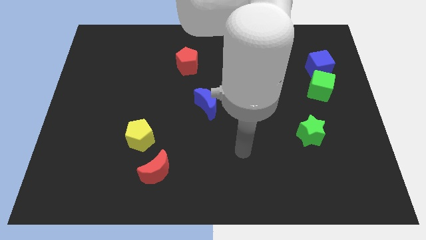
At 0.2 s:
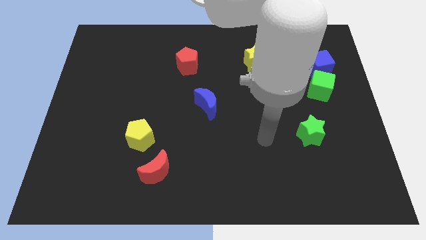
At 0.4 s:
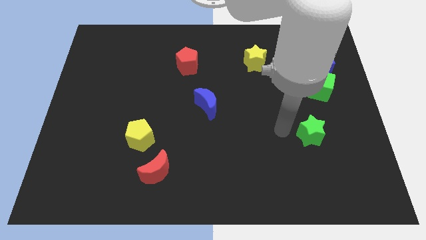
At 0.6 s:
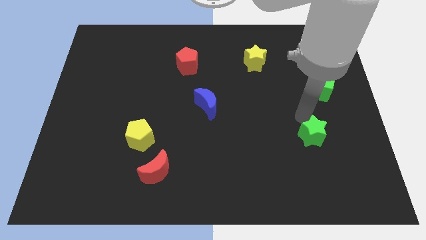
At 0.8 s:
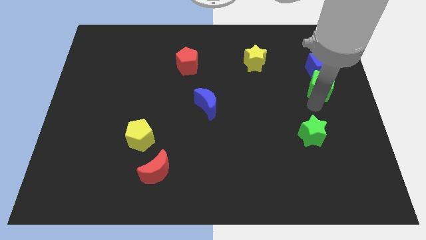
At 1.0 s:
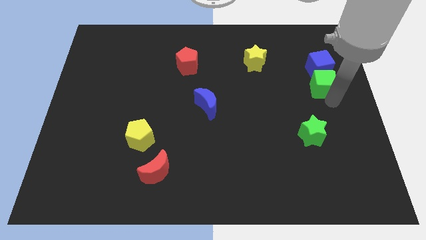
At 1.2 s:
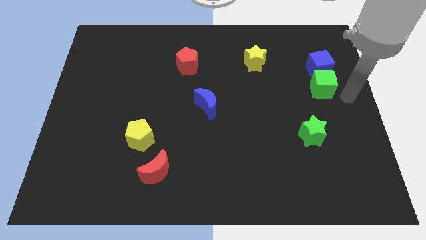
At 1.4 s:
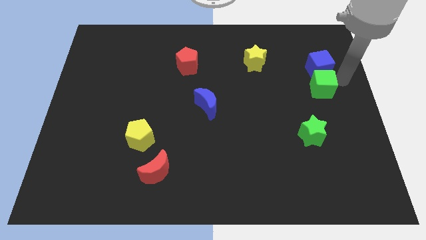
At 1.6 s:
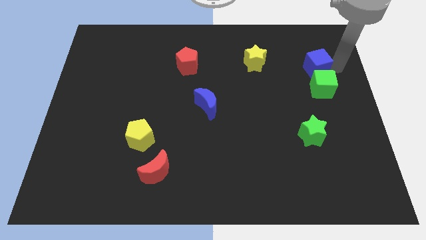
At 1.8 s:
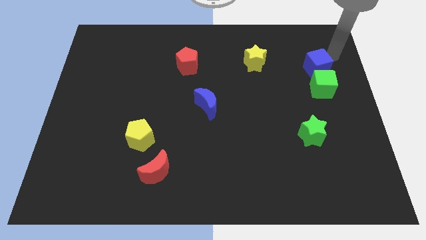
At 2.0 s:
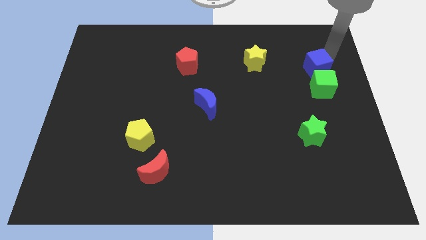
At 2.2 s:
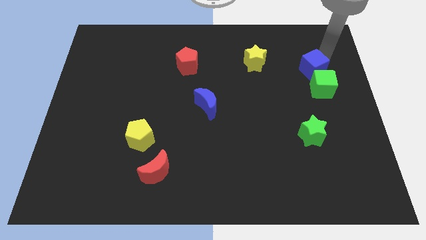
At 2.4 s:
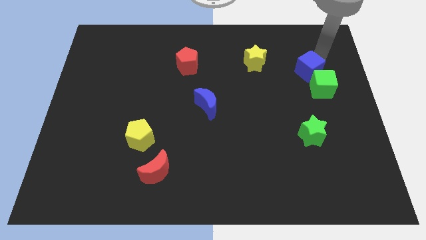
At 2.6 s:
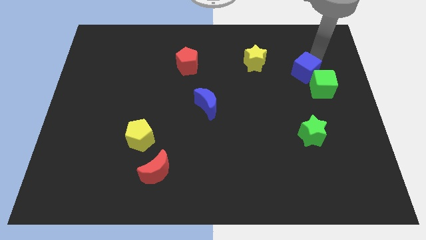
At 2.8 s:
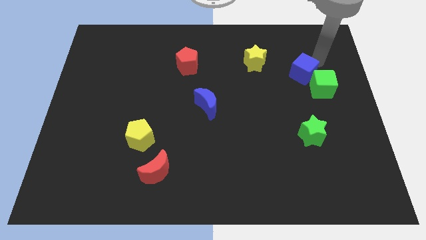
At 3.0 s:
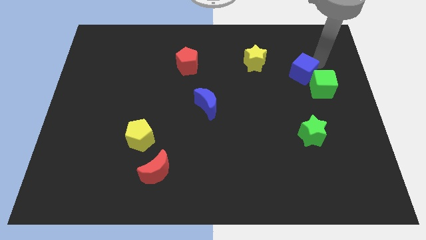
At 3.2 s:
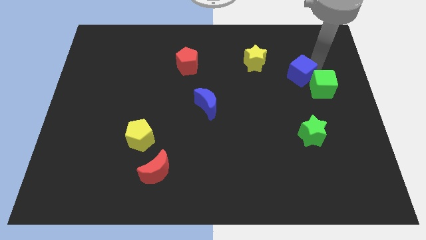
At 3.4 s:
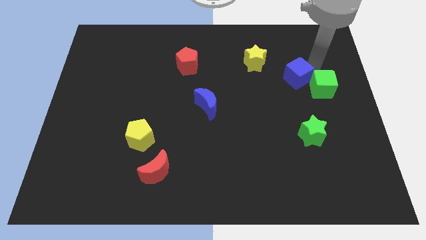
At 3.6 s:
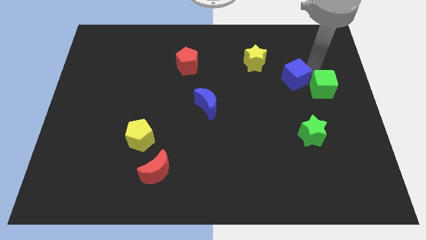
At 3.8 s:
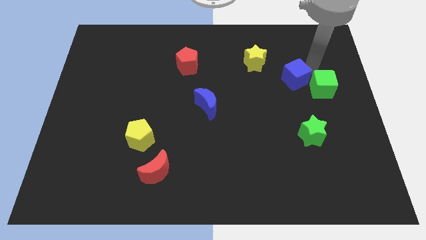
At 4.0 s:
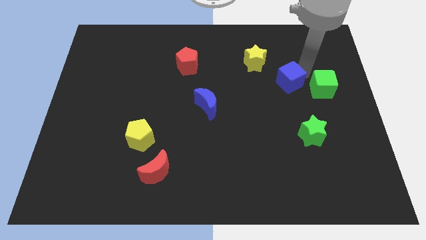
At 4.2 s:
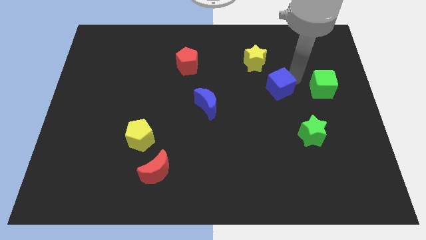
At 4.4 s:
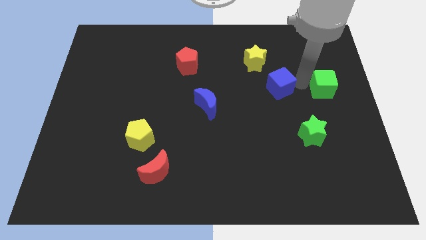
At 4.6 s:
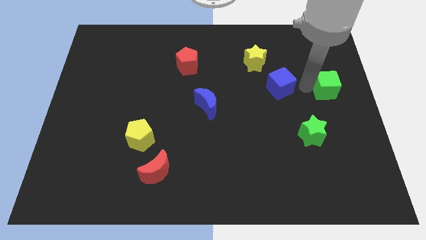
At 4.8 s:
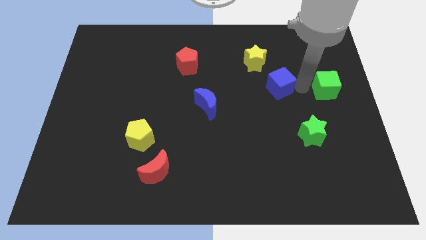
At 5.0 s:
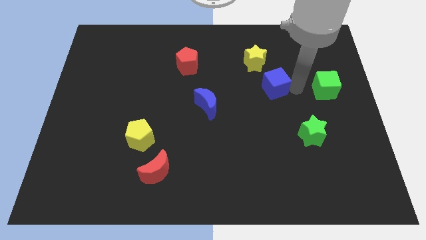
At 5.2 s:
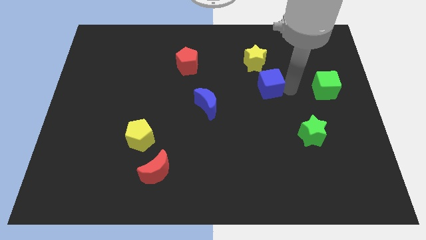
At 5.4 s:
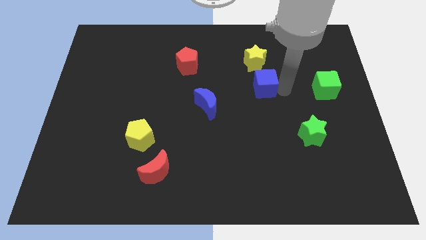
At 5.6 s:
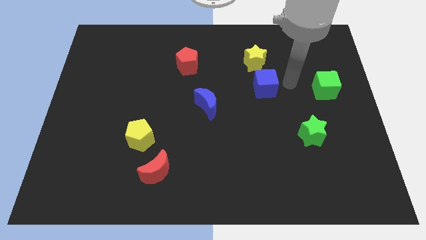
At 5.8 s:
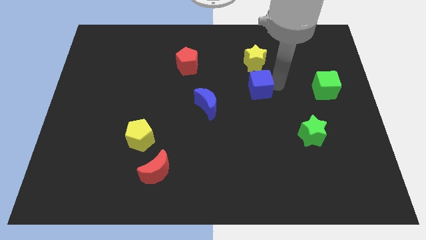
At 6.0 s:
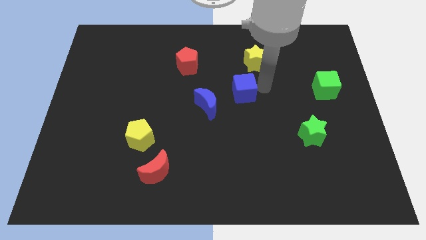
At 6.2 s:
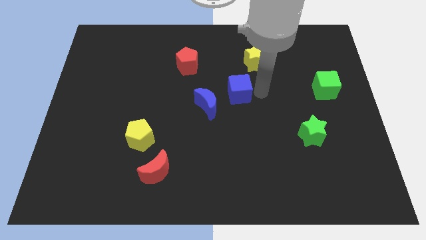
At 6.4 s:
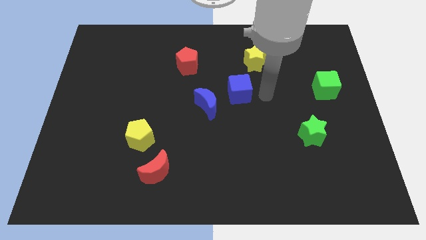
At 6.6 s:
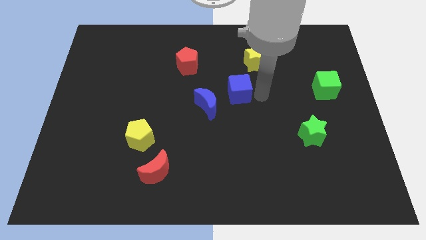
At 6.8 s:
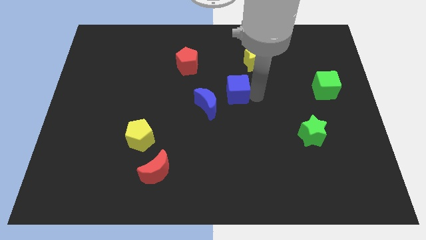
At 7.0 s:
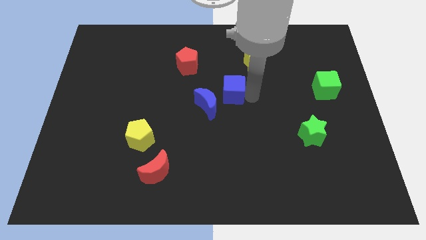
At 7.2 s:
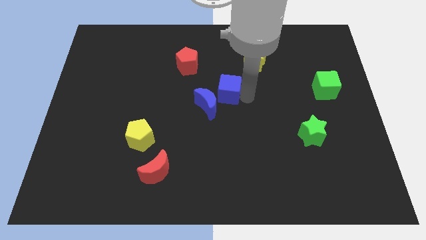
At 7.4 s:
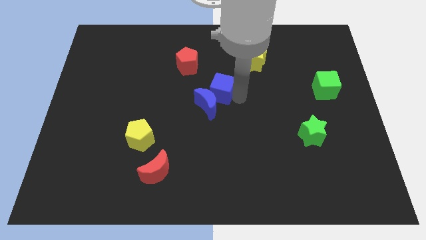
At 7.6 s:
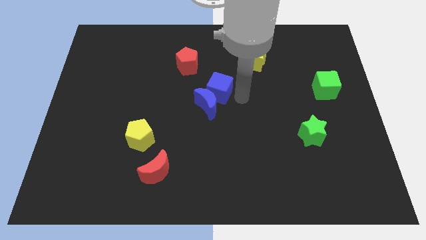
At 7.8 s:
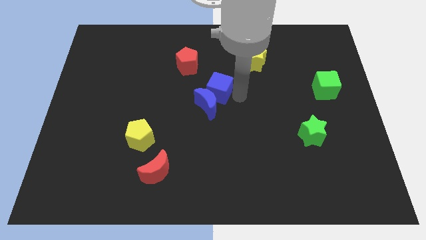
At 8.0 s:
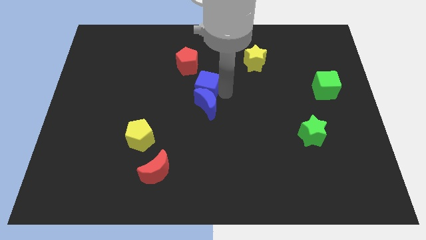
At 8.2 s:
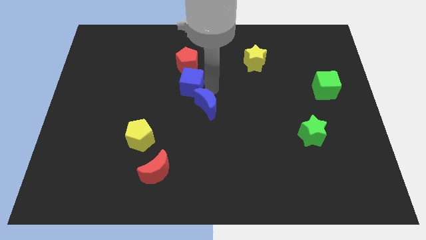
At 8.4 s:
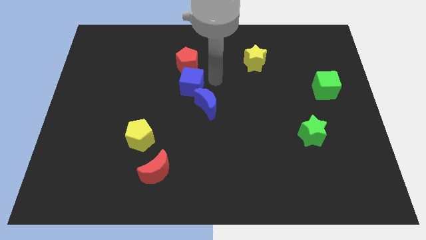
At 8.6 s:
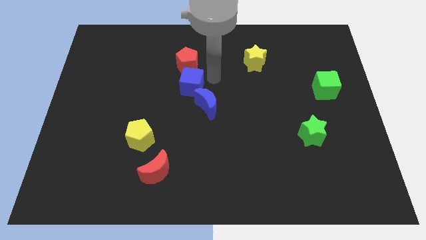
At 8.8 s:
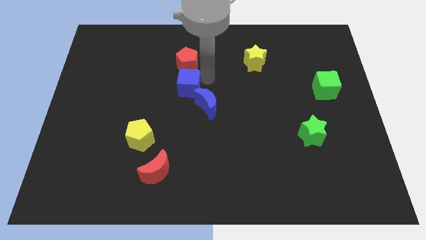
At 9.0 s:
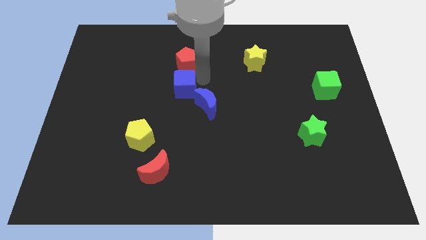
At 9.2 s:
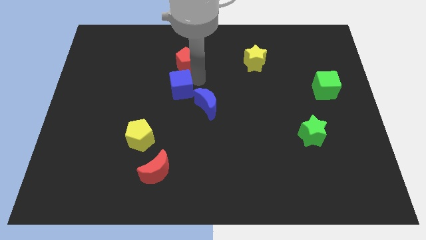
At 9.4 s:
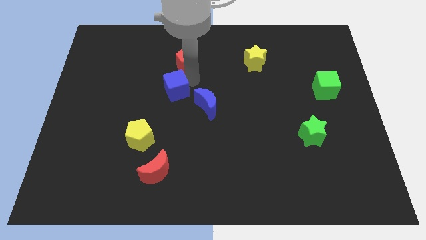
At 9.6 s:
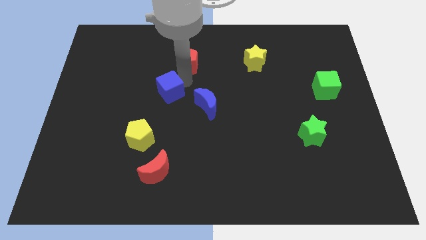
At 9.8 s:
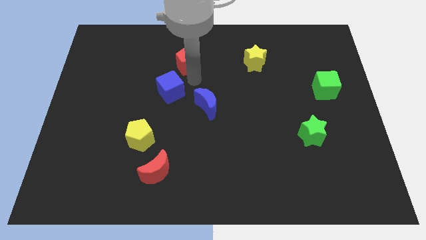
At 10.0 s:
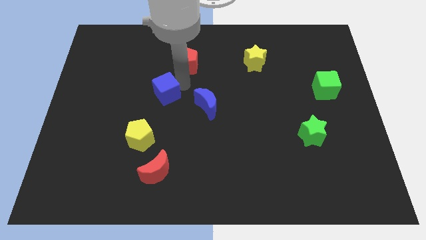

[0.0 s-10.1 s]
move the blue cube to the top of the yellow pentagon

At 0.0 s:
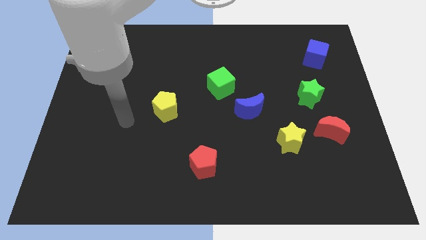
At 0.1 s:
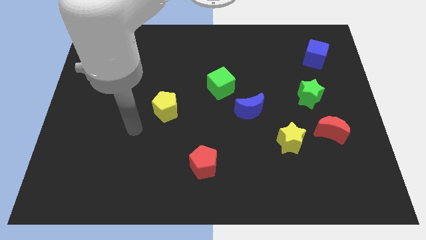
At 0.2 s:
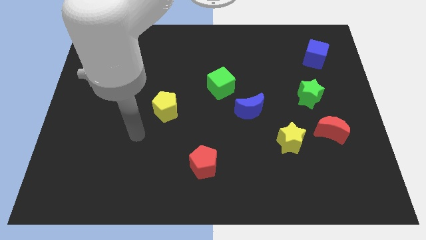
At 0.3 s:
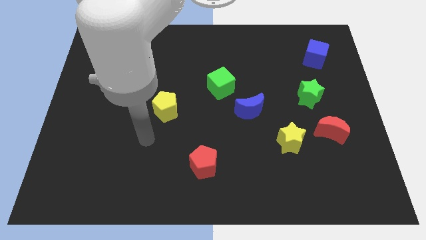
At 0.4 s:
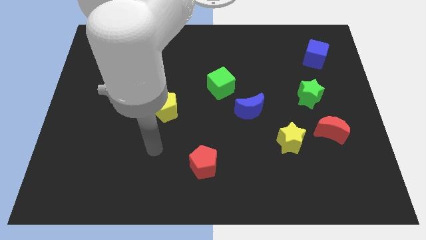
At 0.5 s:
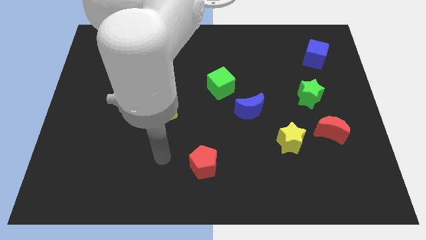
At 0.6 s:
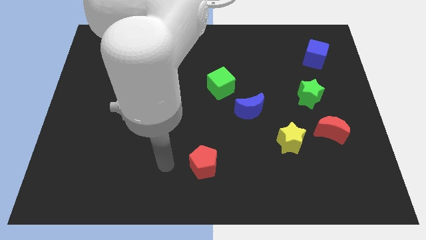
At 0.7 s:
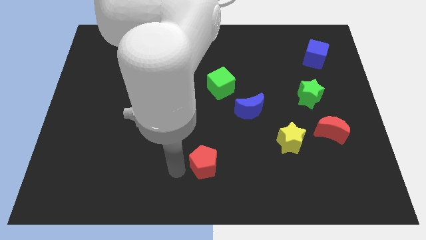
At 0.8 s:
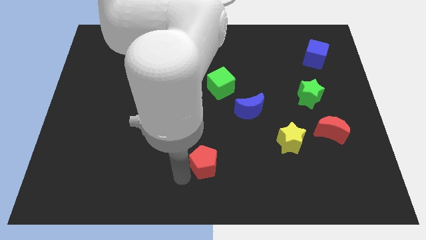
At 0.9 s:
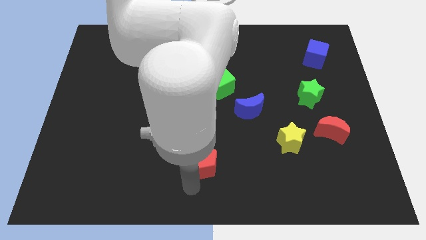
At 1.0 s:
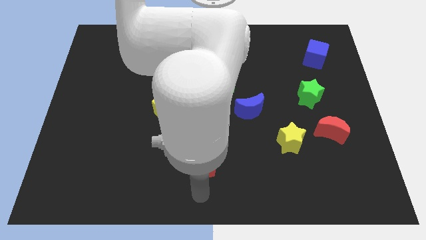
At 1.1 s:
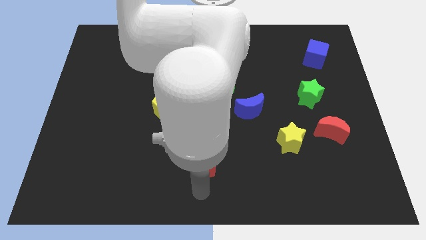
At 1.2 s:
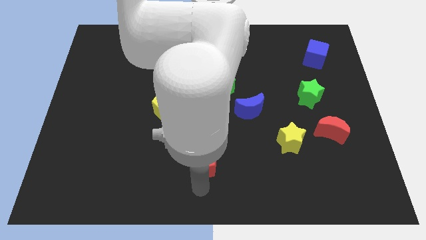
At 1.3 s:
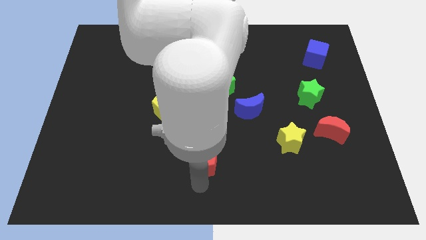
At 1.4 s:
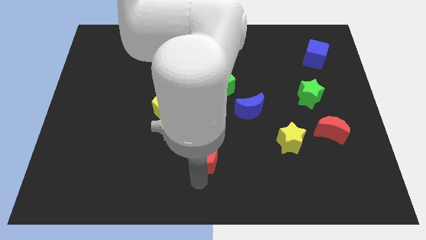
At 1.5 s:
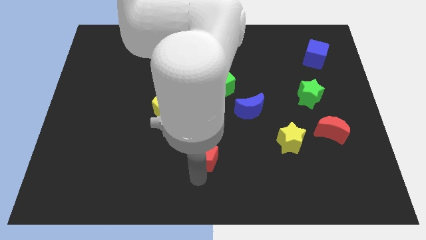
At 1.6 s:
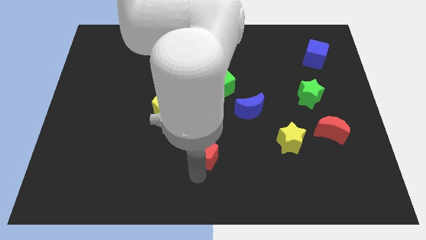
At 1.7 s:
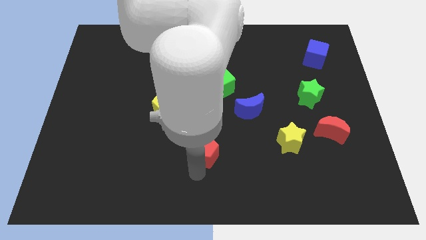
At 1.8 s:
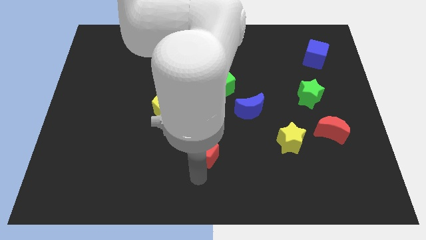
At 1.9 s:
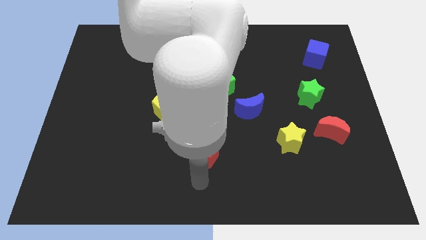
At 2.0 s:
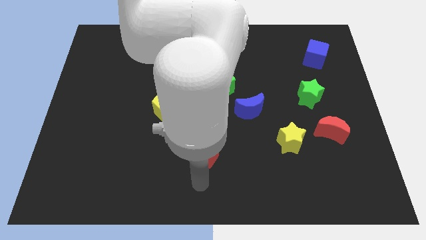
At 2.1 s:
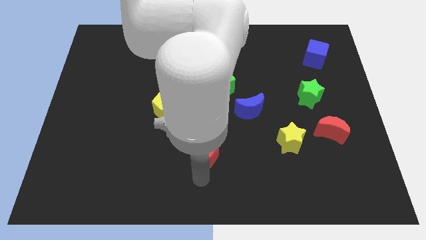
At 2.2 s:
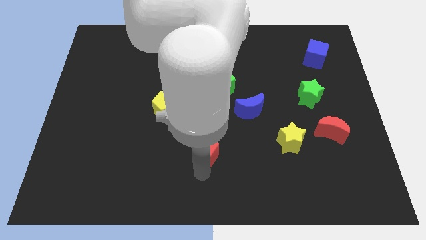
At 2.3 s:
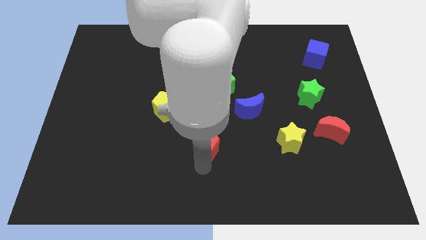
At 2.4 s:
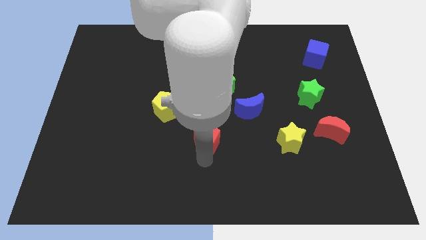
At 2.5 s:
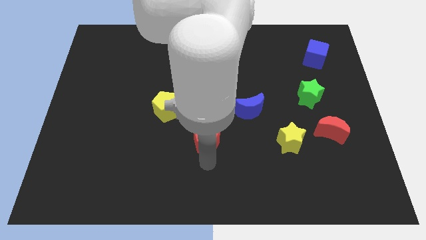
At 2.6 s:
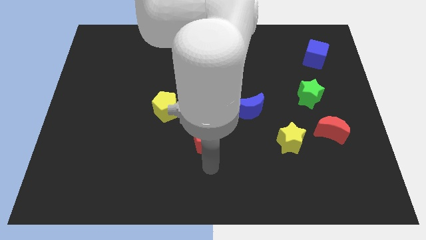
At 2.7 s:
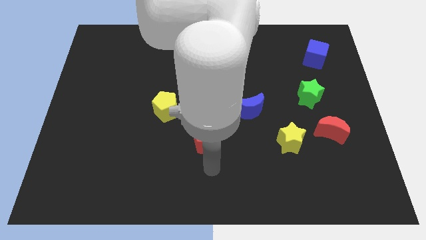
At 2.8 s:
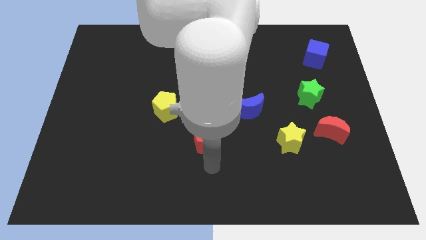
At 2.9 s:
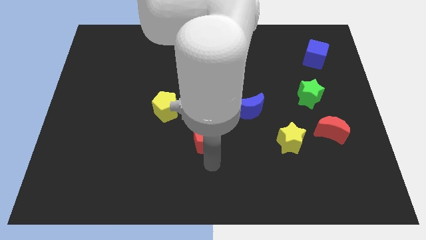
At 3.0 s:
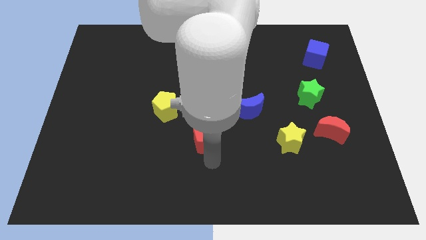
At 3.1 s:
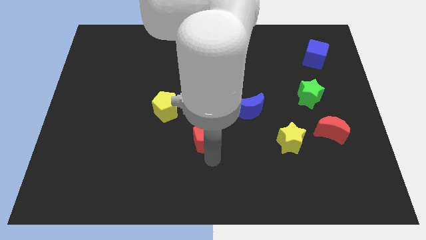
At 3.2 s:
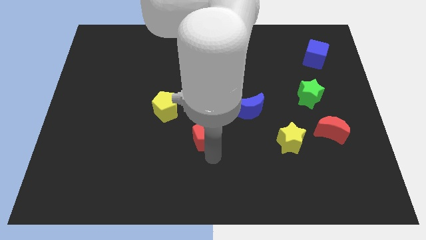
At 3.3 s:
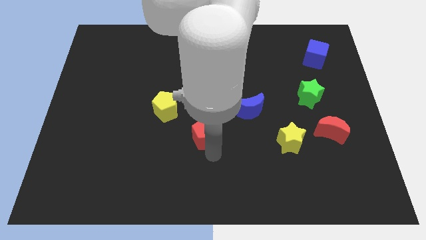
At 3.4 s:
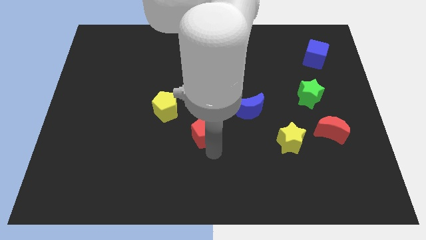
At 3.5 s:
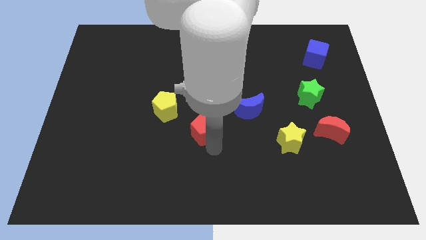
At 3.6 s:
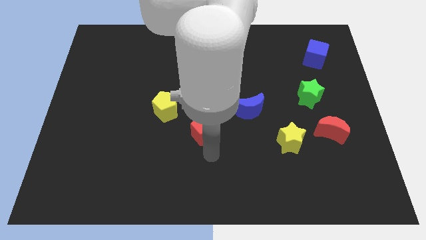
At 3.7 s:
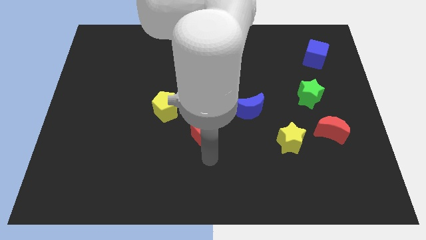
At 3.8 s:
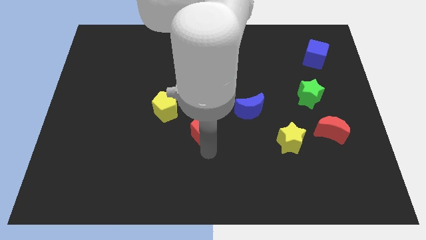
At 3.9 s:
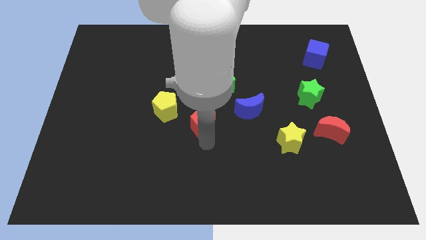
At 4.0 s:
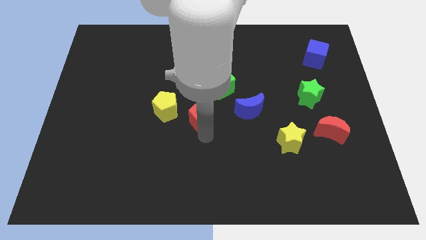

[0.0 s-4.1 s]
move the red pentagon to the bottom left of the green cube
